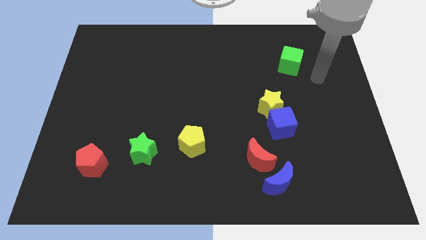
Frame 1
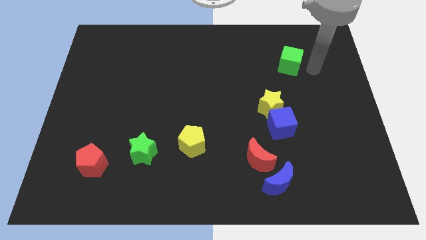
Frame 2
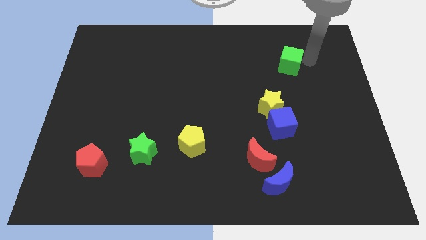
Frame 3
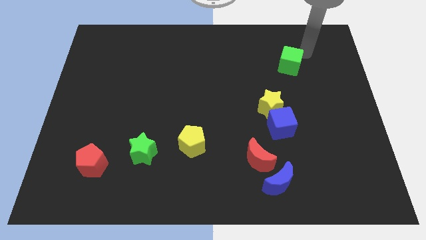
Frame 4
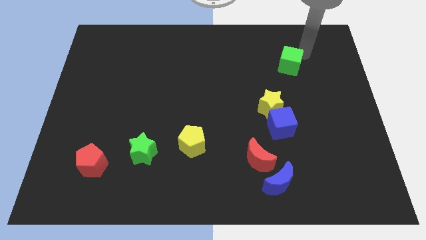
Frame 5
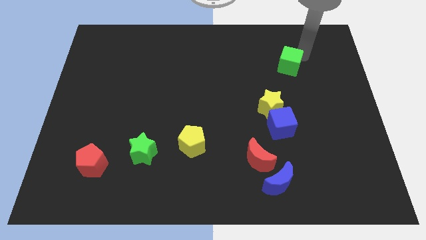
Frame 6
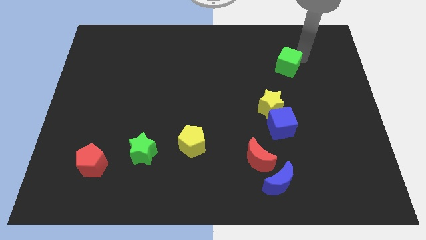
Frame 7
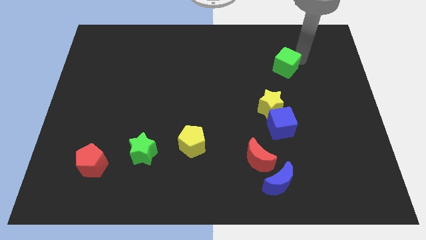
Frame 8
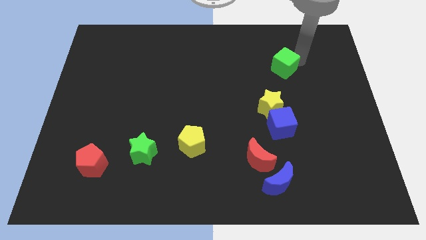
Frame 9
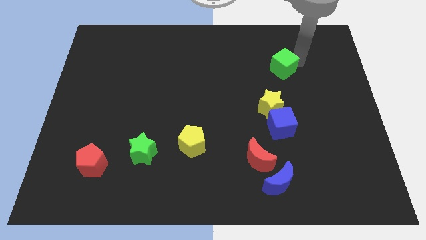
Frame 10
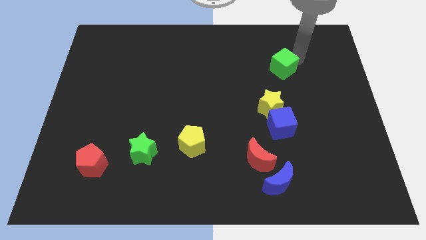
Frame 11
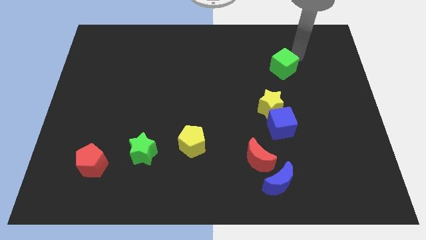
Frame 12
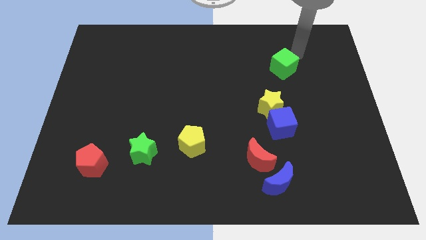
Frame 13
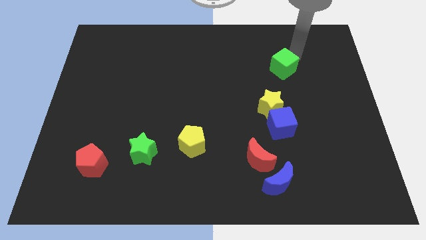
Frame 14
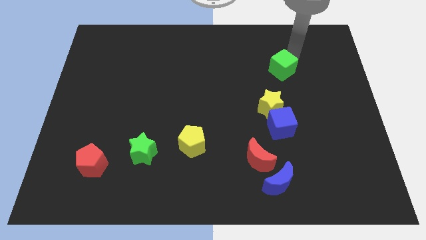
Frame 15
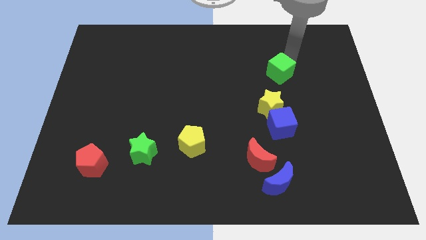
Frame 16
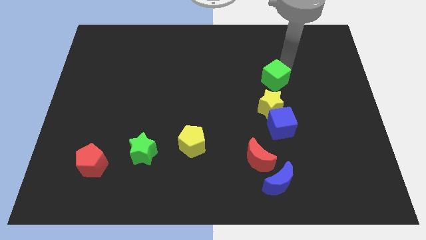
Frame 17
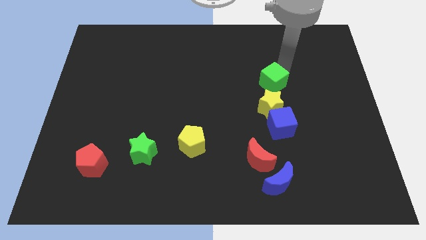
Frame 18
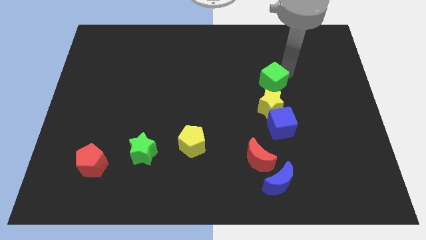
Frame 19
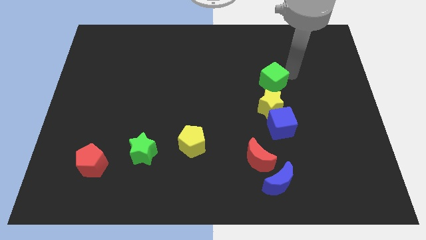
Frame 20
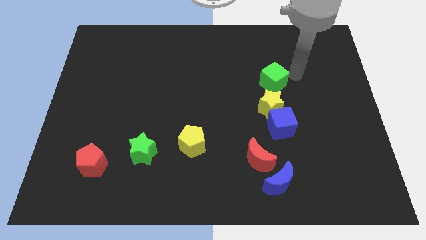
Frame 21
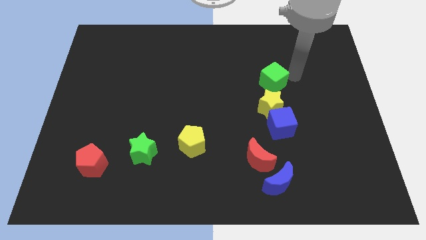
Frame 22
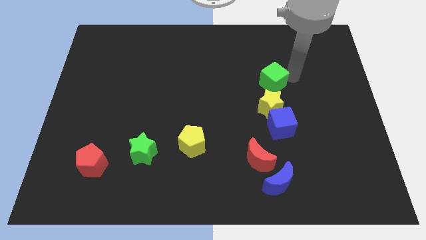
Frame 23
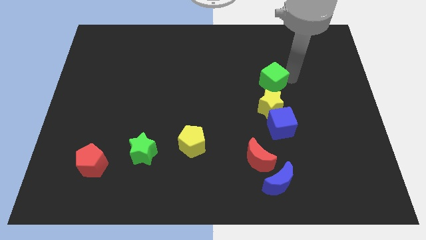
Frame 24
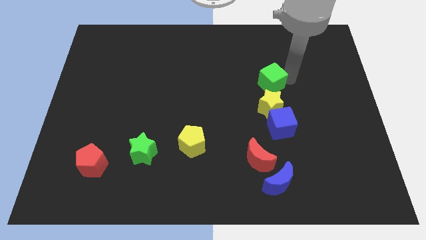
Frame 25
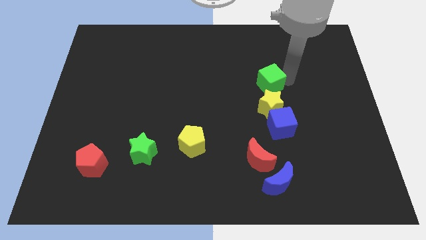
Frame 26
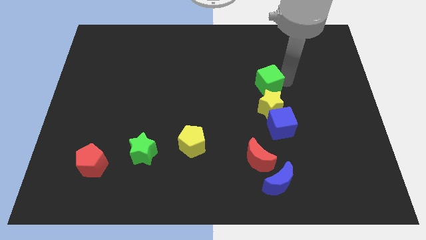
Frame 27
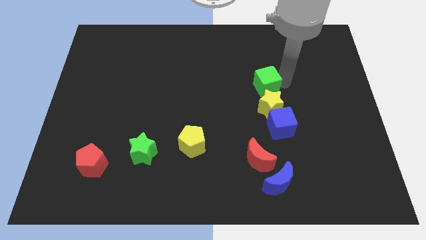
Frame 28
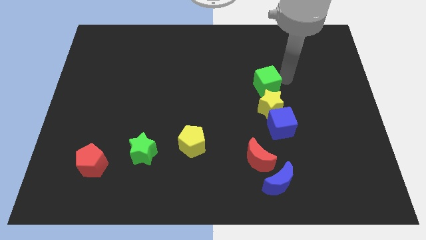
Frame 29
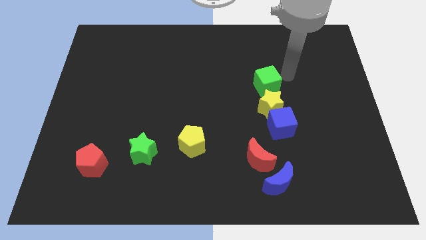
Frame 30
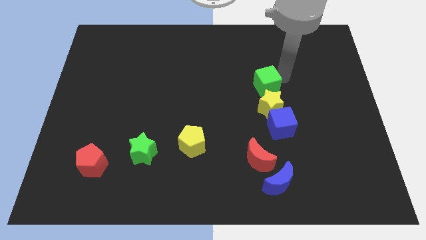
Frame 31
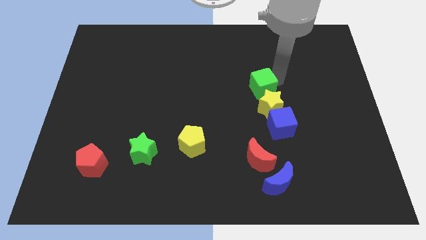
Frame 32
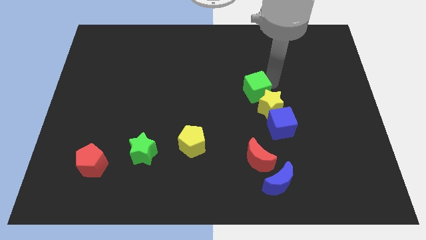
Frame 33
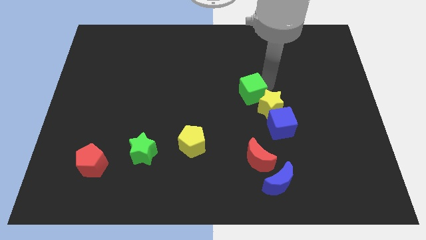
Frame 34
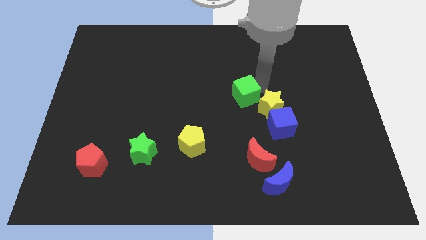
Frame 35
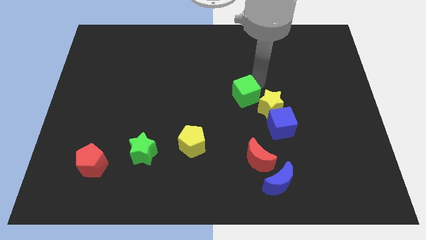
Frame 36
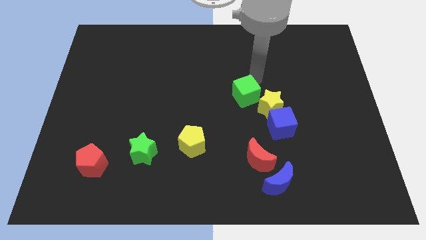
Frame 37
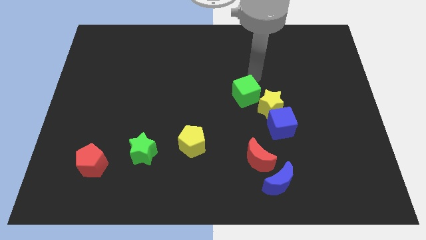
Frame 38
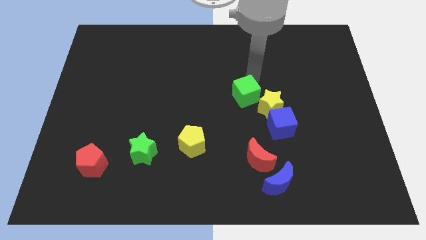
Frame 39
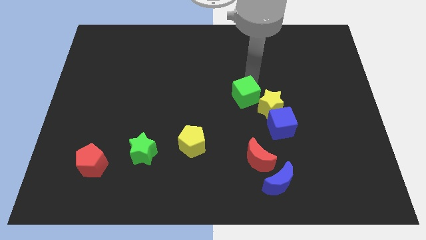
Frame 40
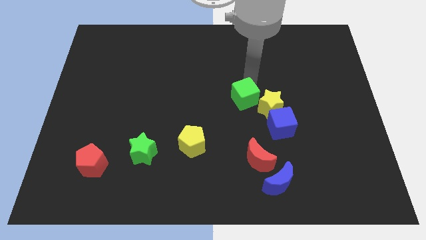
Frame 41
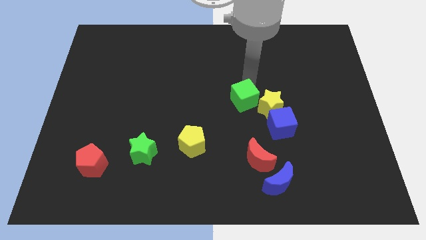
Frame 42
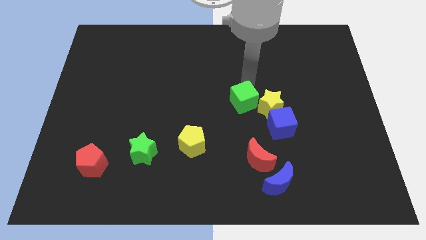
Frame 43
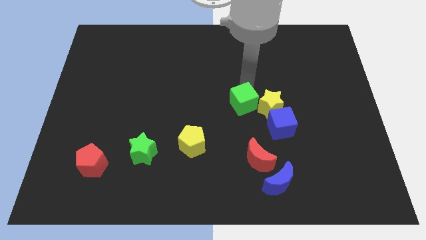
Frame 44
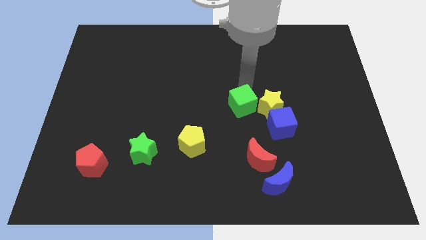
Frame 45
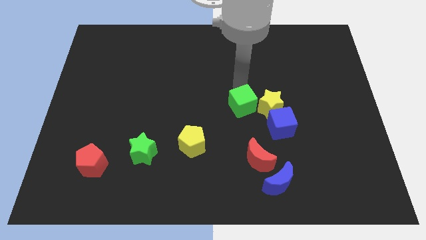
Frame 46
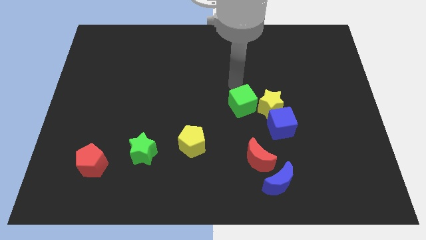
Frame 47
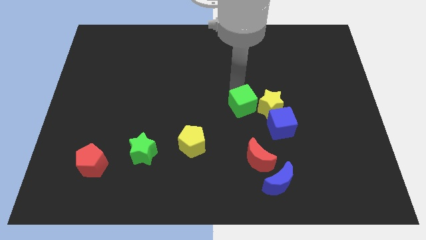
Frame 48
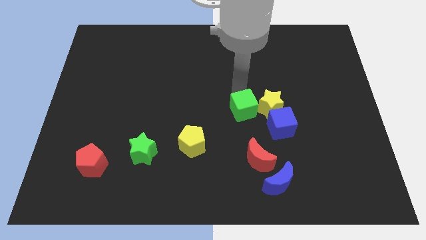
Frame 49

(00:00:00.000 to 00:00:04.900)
push the green cube diagonally down and to the left of the yellow star

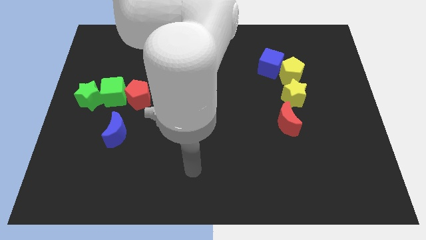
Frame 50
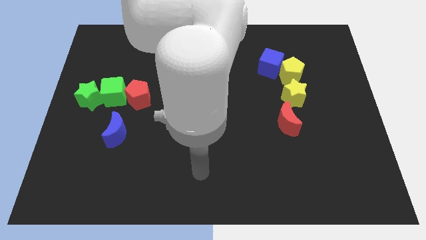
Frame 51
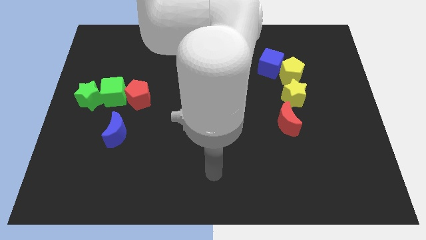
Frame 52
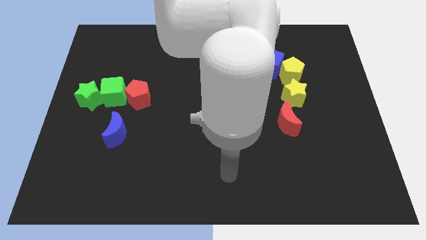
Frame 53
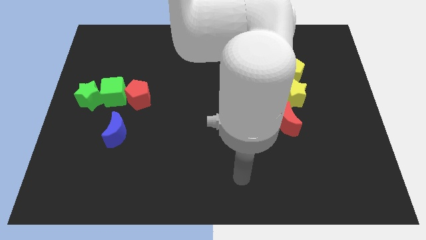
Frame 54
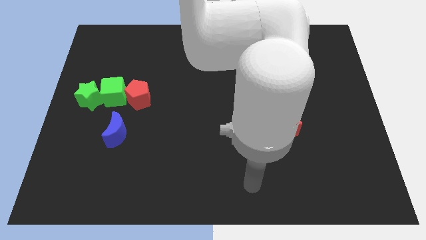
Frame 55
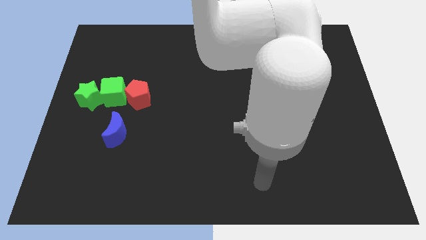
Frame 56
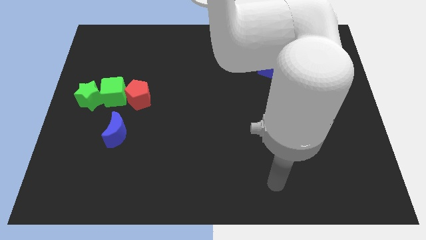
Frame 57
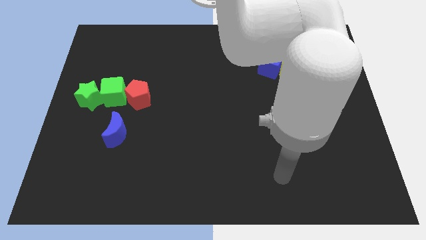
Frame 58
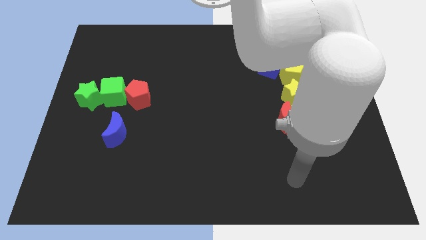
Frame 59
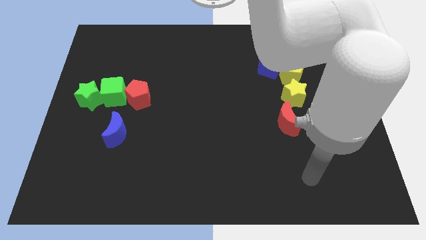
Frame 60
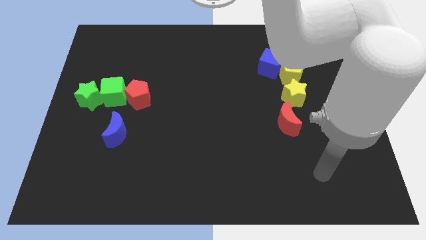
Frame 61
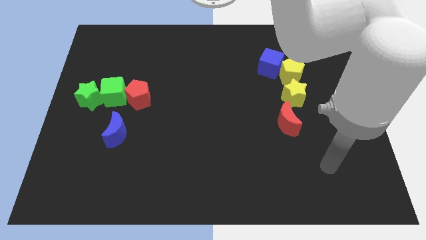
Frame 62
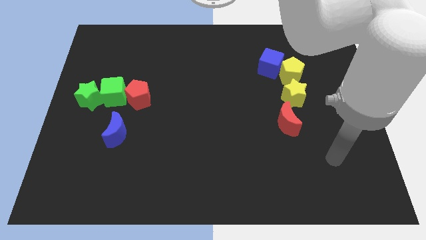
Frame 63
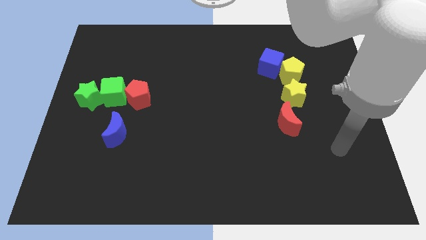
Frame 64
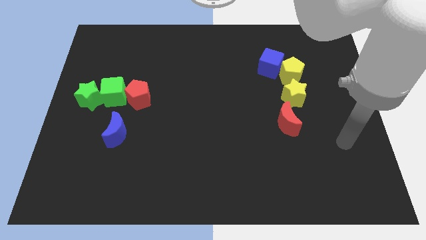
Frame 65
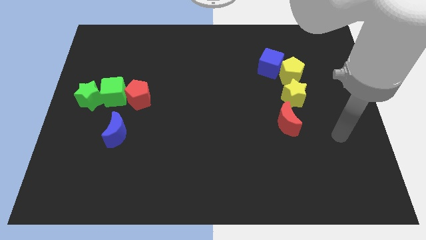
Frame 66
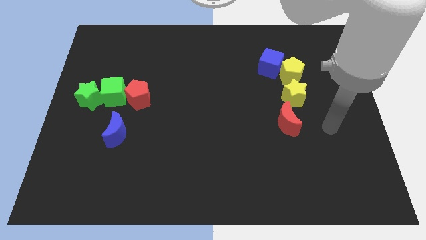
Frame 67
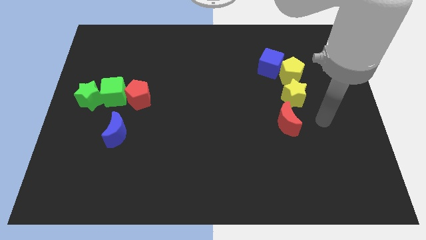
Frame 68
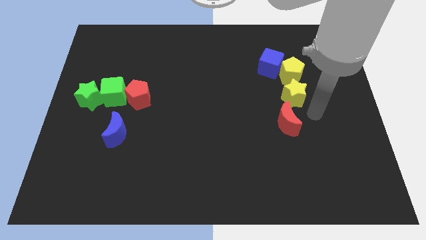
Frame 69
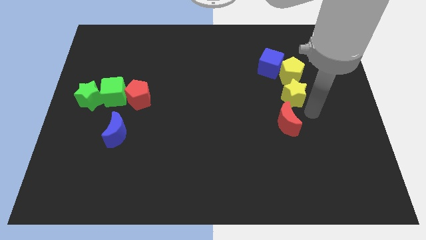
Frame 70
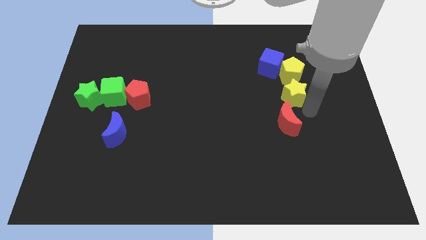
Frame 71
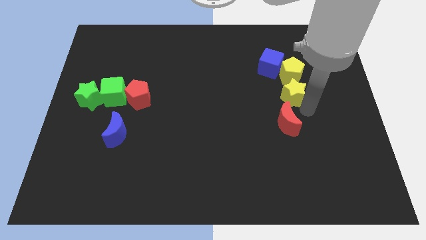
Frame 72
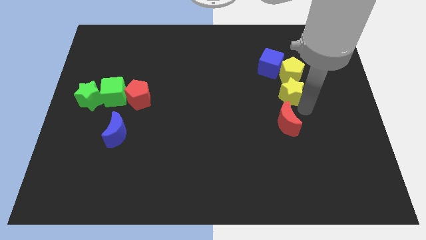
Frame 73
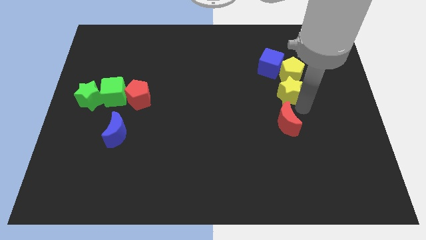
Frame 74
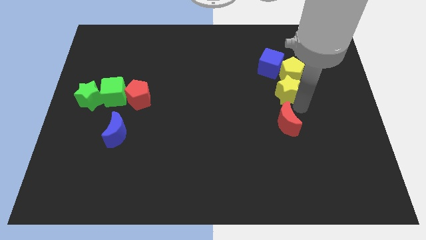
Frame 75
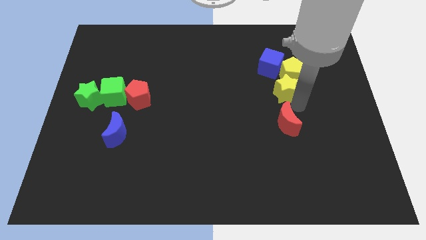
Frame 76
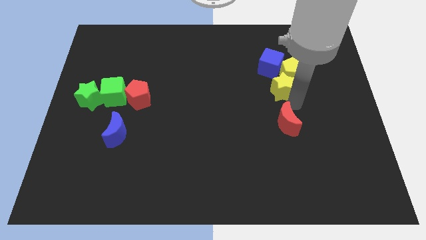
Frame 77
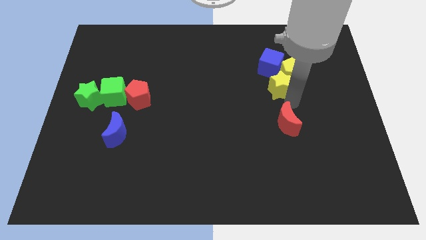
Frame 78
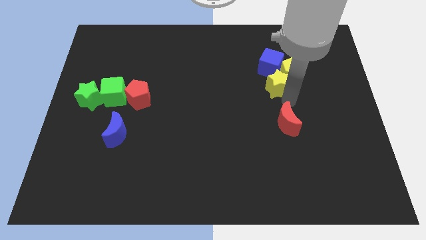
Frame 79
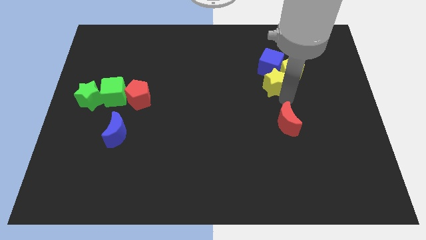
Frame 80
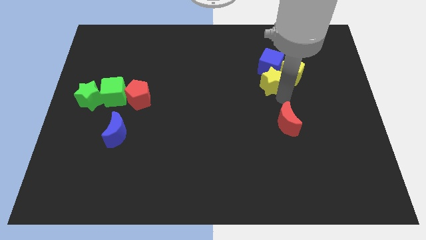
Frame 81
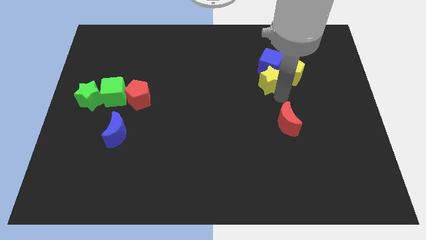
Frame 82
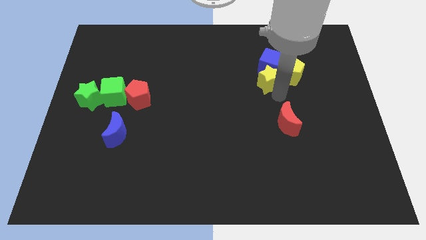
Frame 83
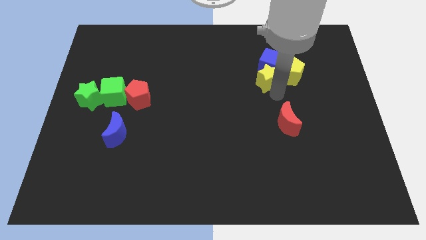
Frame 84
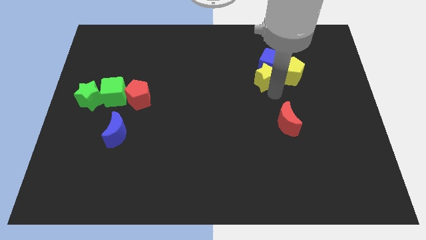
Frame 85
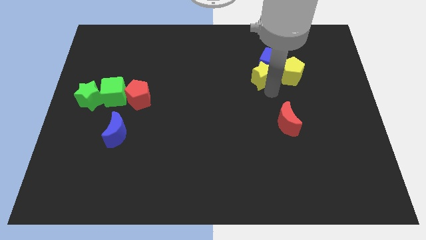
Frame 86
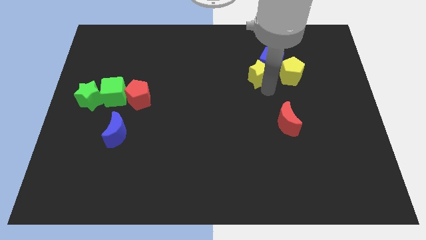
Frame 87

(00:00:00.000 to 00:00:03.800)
slide the yellow star to the left side of the blue cube
